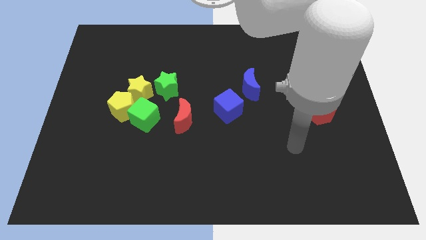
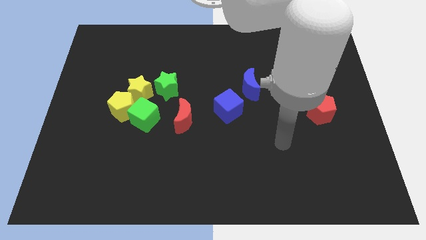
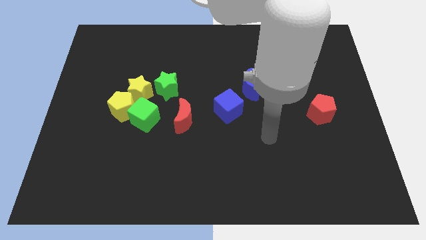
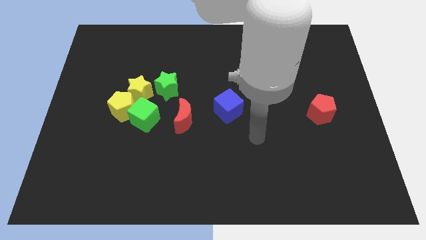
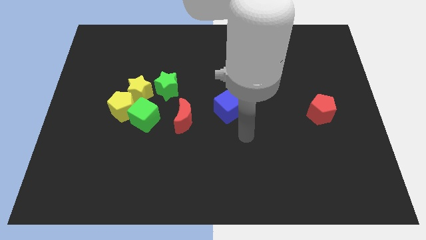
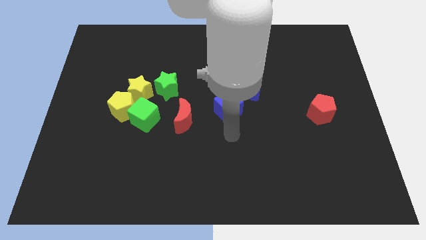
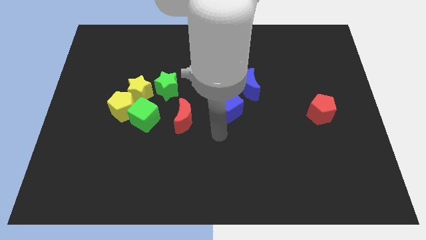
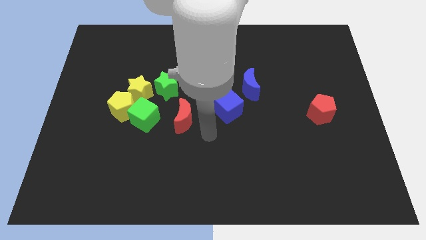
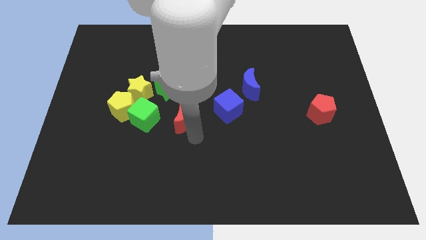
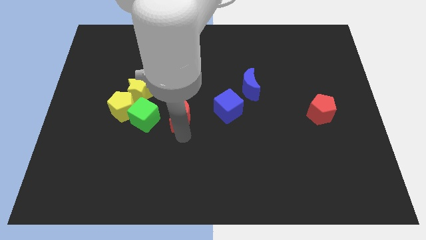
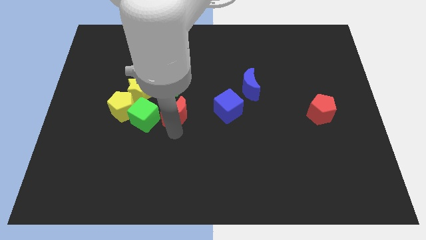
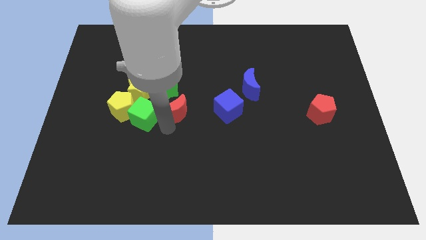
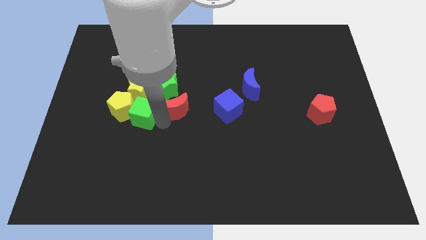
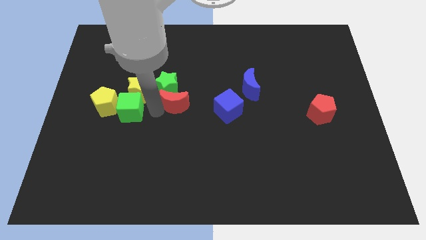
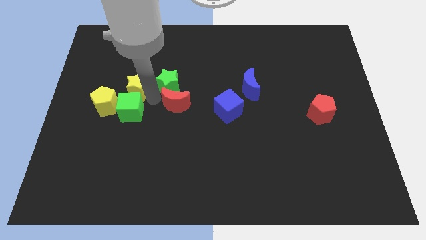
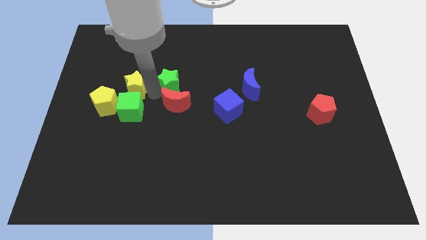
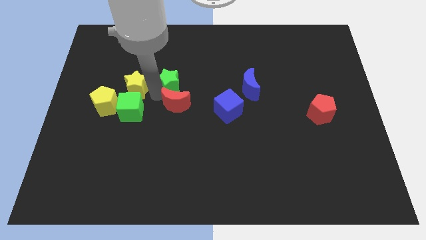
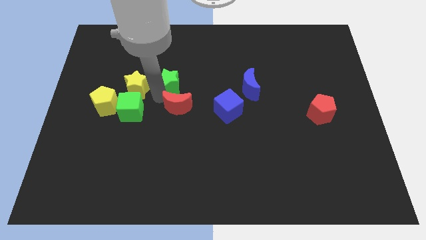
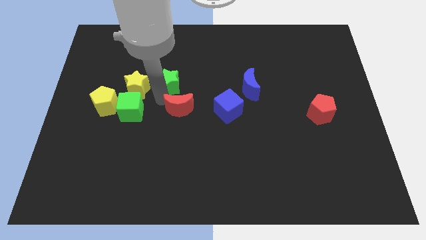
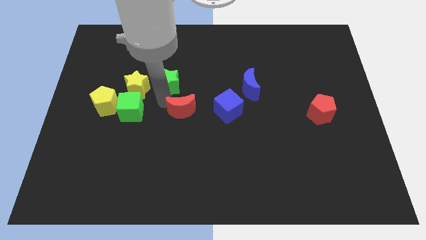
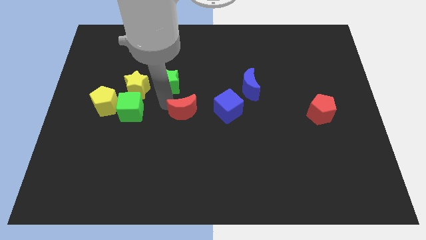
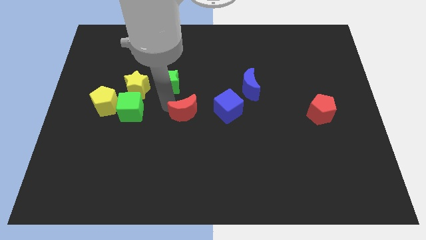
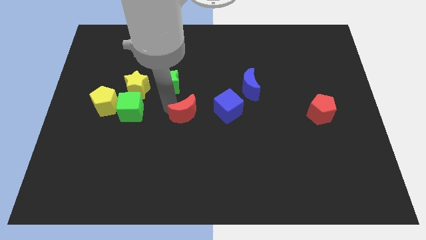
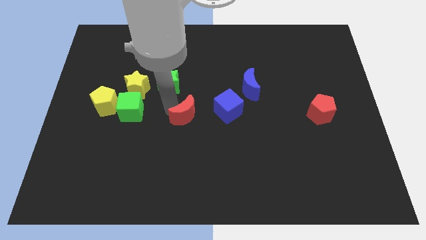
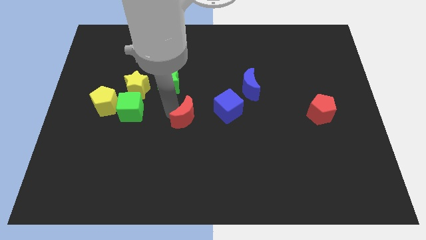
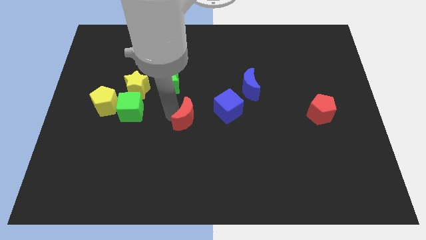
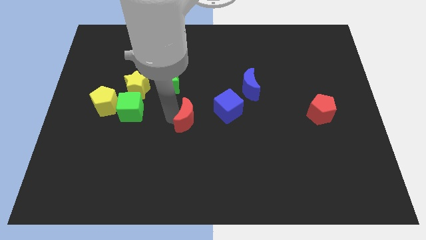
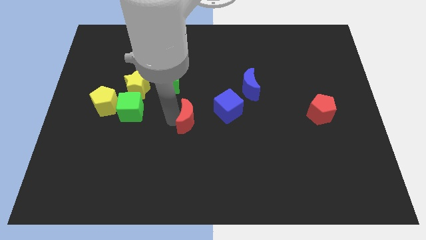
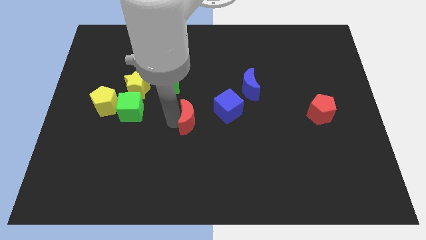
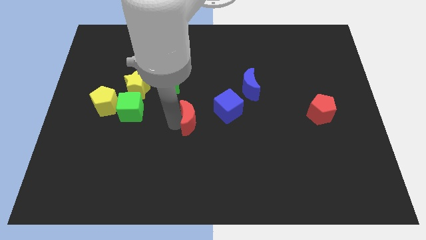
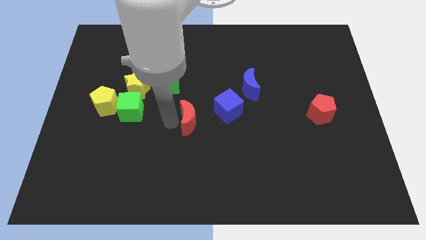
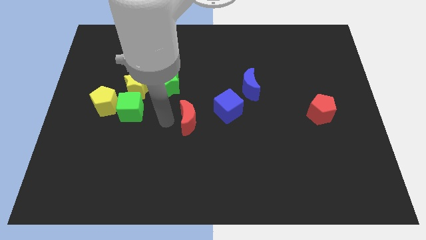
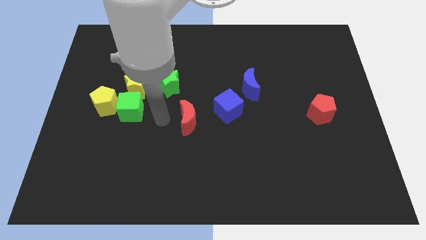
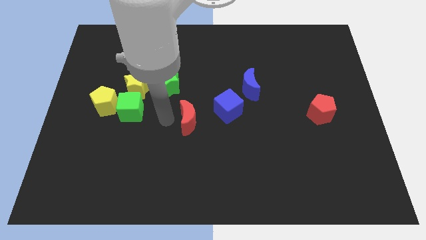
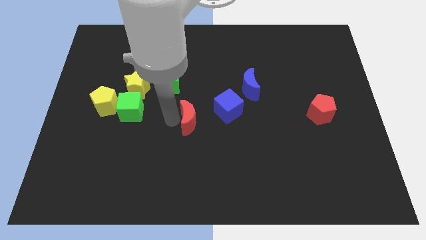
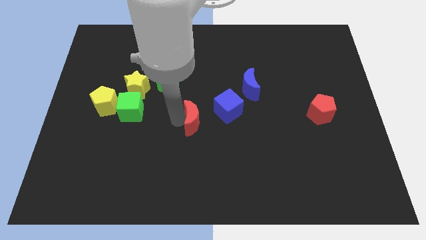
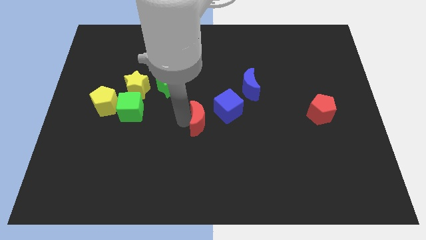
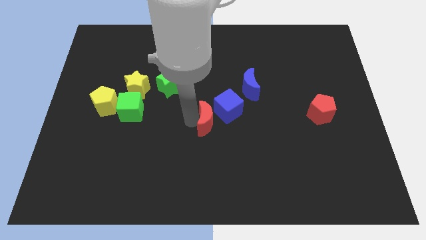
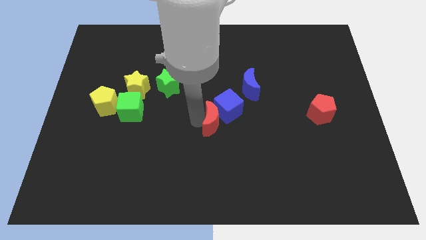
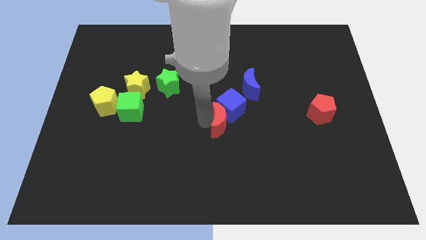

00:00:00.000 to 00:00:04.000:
push the red moon a little bit right

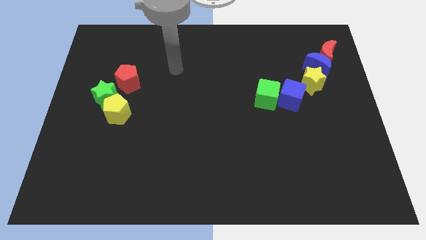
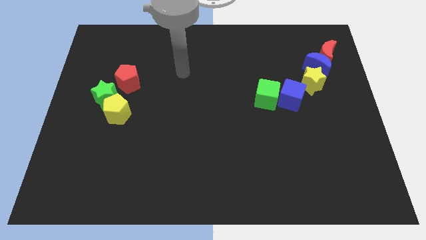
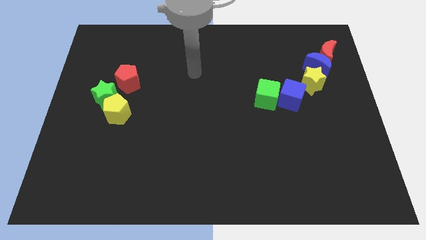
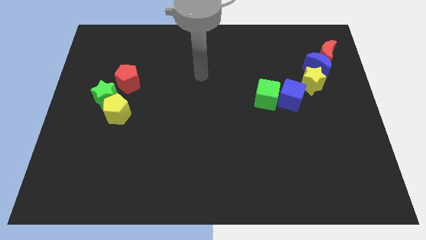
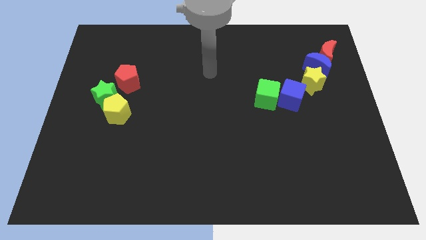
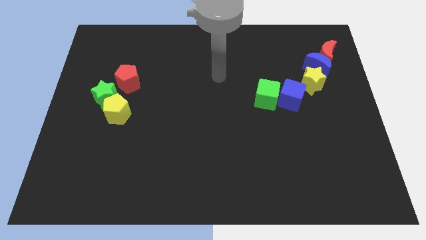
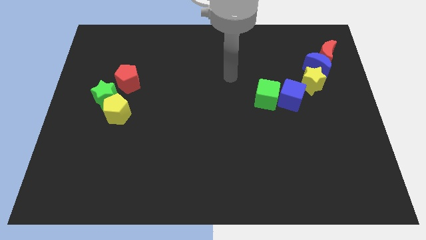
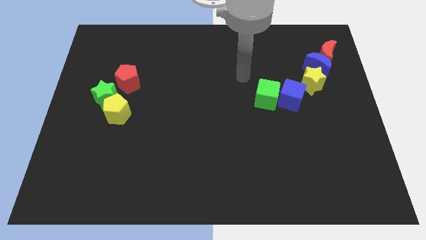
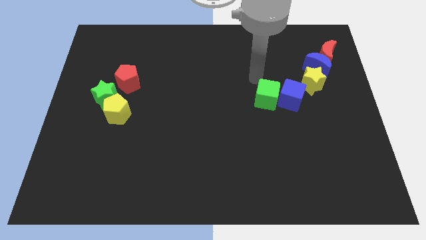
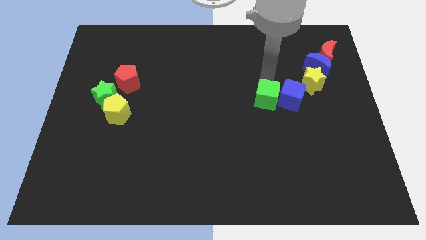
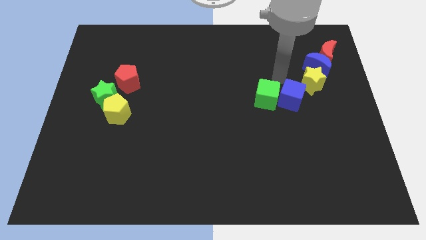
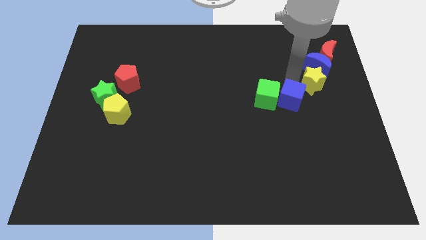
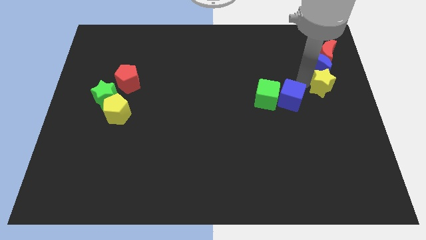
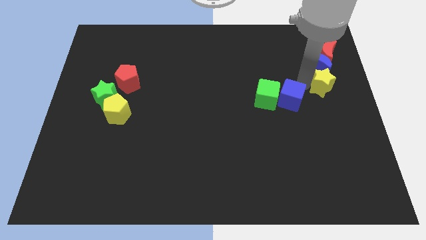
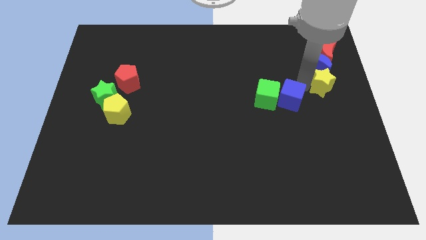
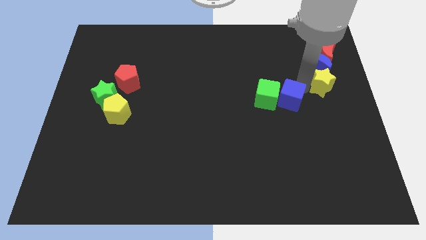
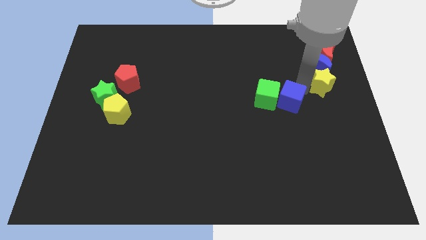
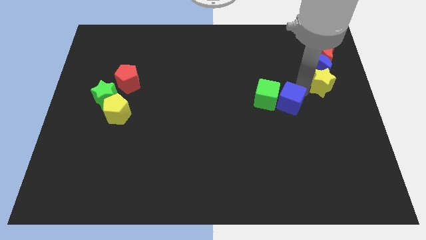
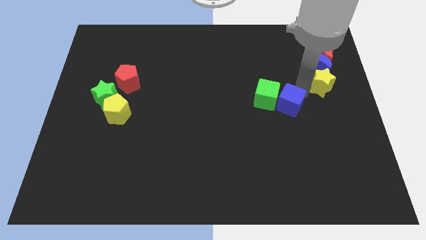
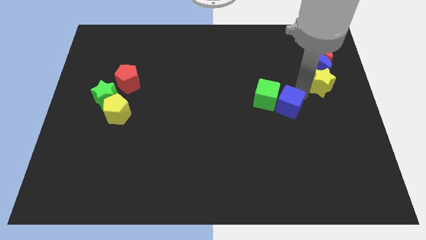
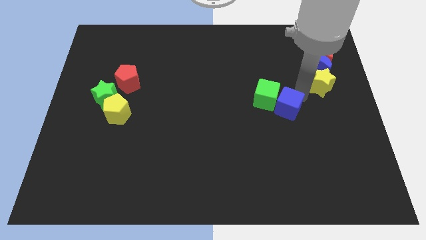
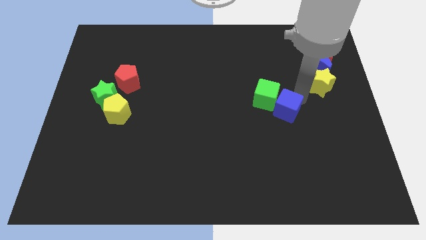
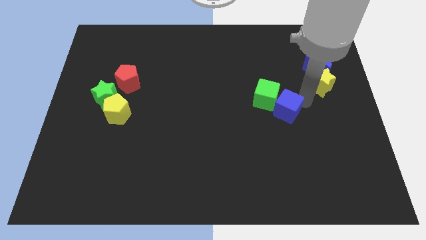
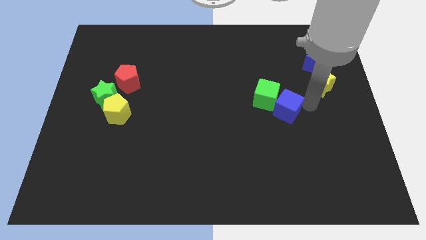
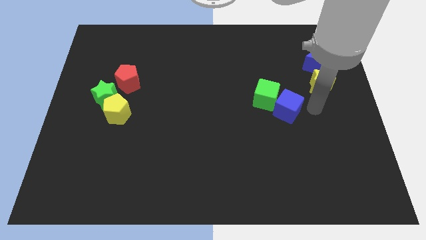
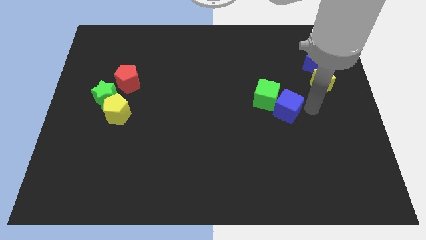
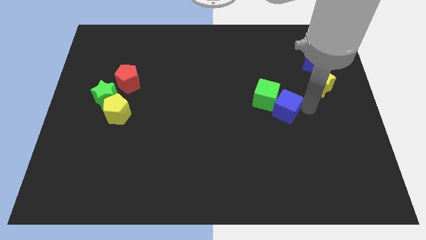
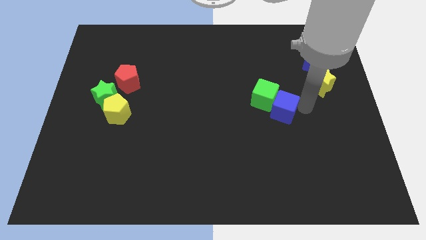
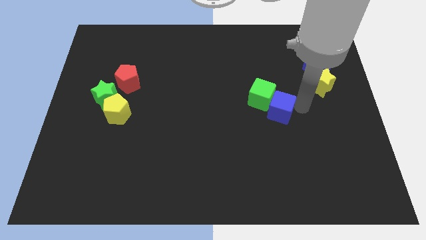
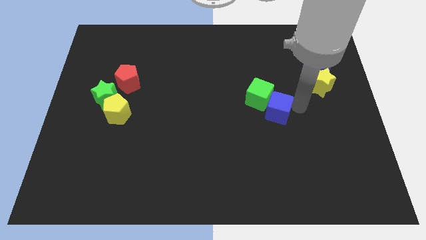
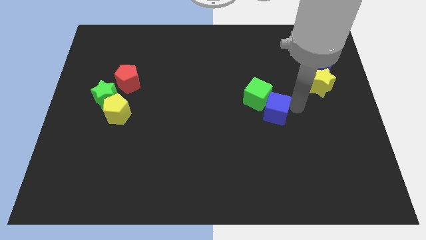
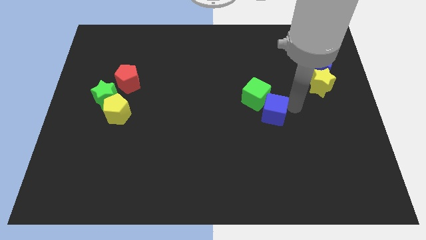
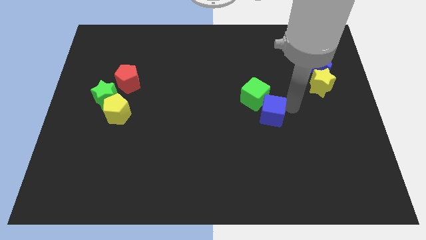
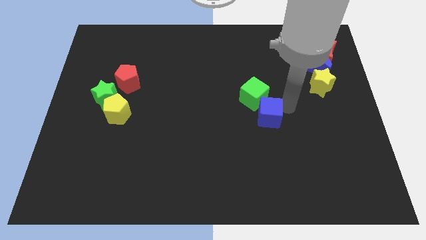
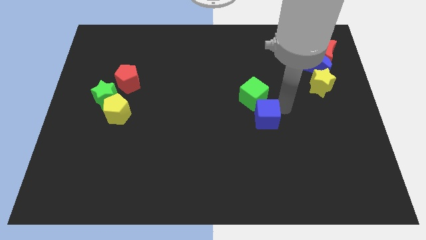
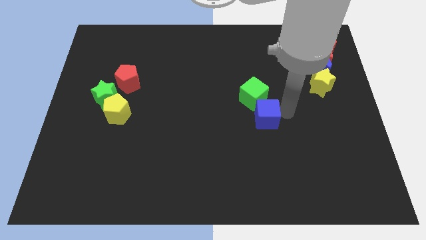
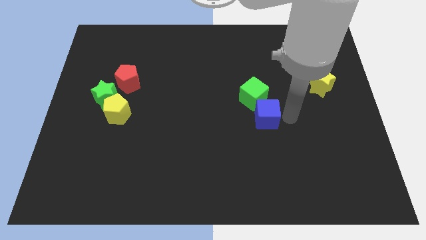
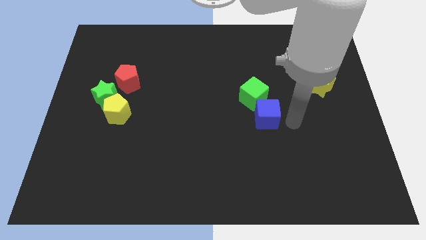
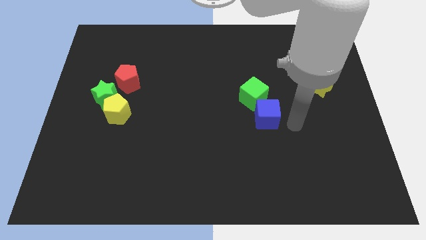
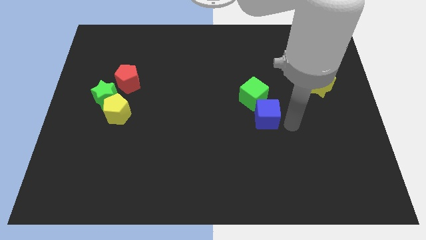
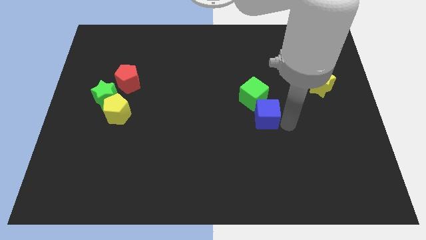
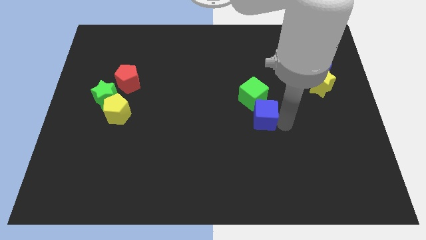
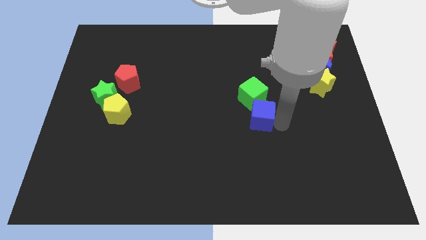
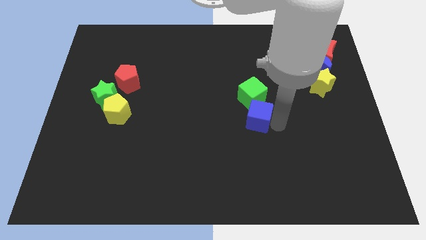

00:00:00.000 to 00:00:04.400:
slide the blue cube to the left a little bit
